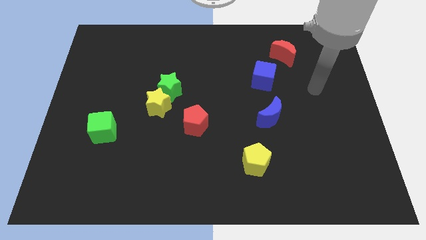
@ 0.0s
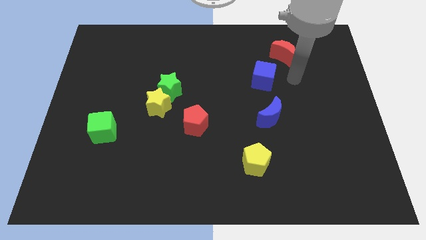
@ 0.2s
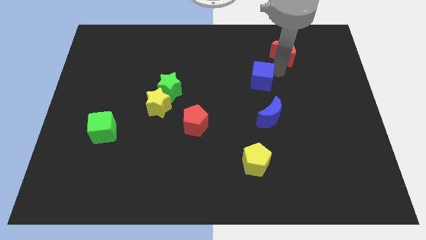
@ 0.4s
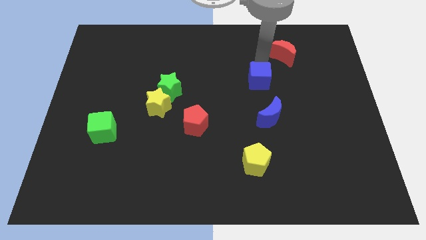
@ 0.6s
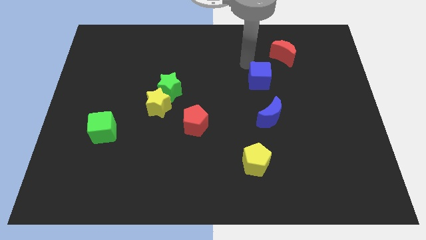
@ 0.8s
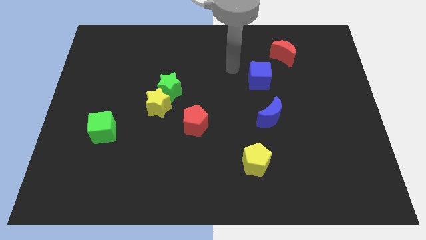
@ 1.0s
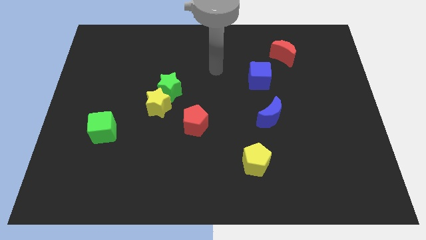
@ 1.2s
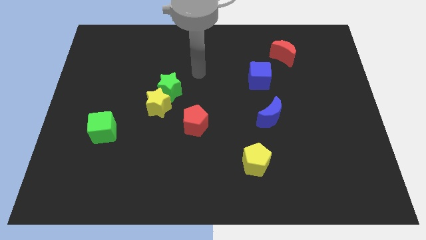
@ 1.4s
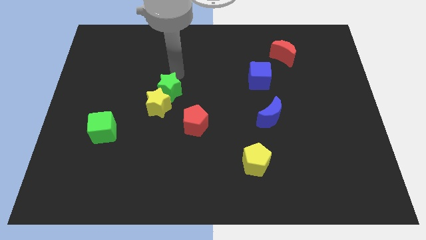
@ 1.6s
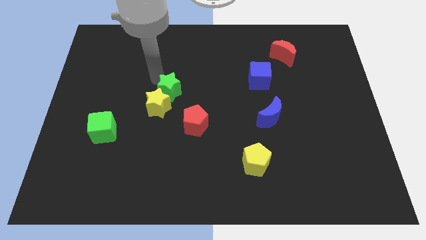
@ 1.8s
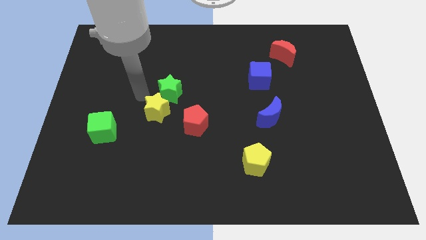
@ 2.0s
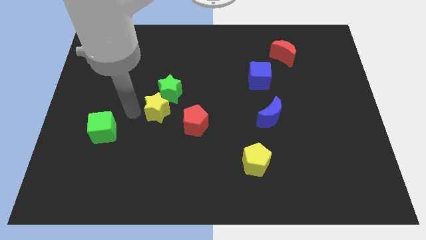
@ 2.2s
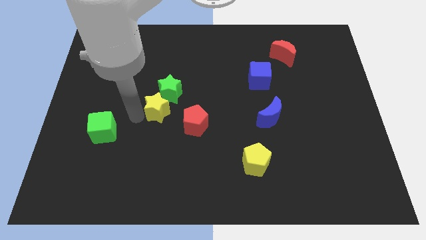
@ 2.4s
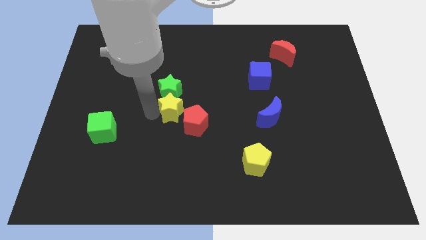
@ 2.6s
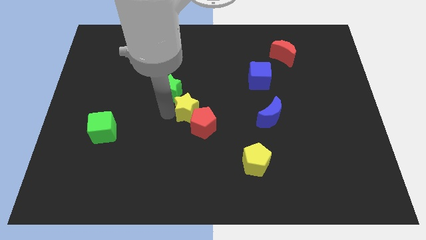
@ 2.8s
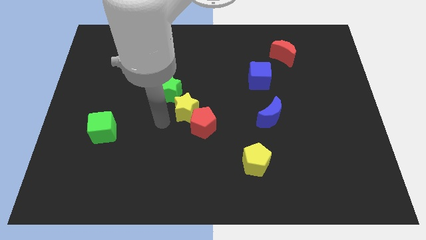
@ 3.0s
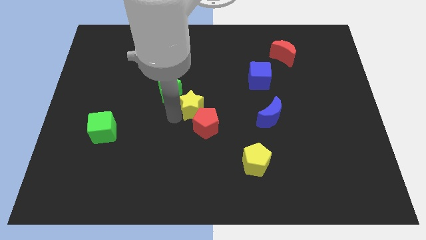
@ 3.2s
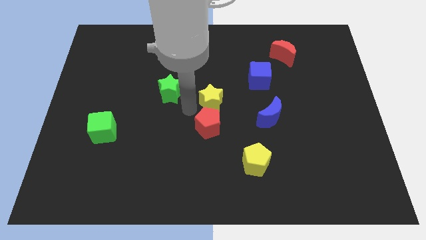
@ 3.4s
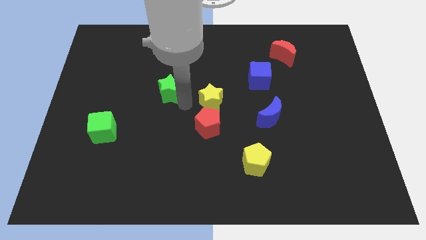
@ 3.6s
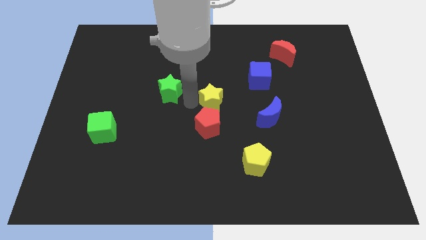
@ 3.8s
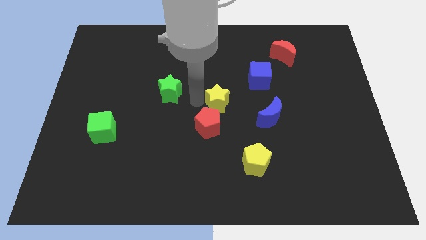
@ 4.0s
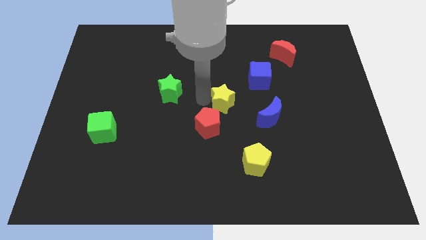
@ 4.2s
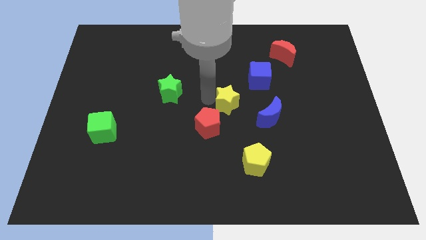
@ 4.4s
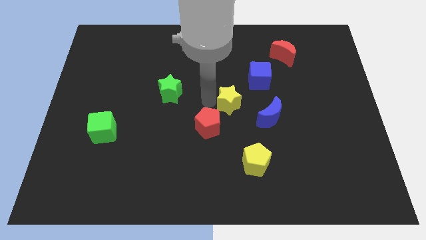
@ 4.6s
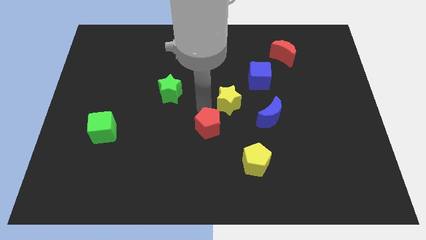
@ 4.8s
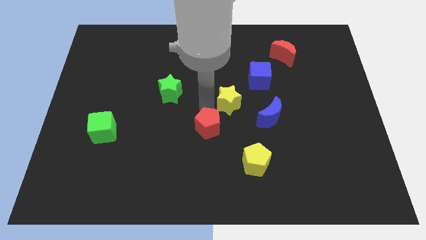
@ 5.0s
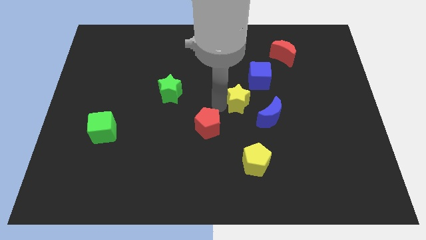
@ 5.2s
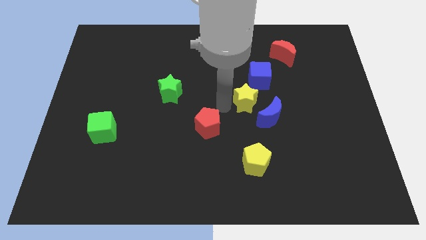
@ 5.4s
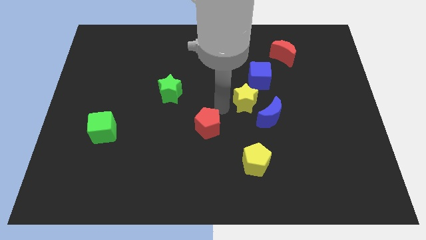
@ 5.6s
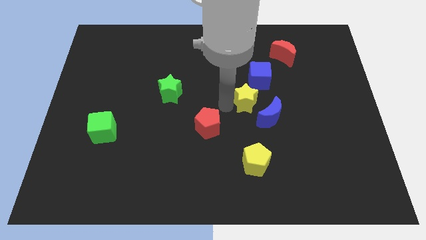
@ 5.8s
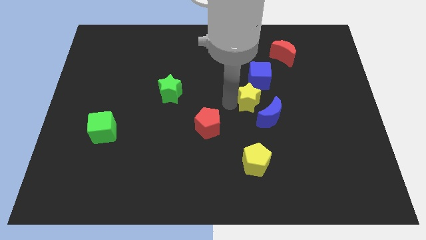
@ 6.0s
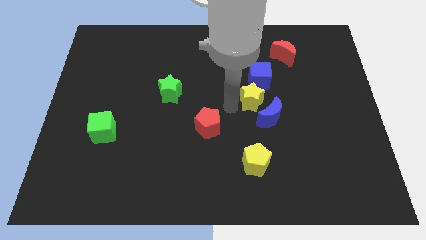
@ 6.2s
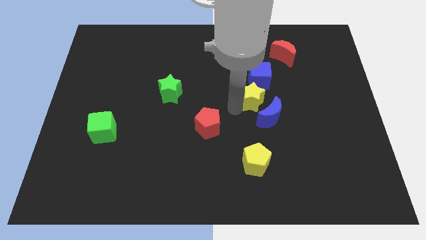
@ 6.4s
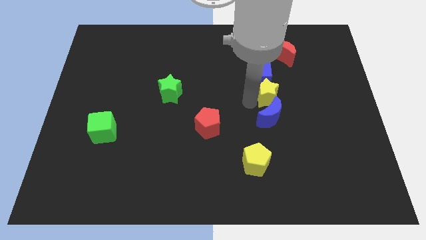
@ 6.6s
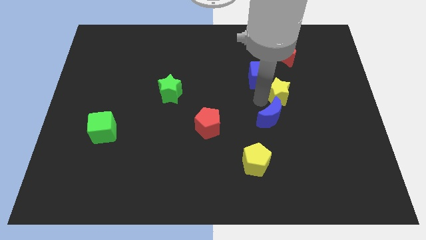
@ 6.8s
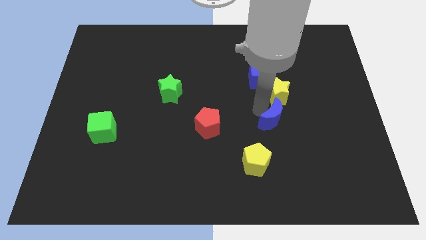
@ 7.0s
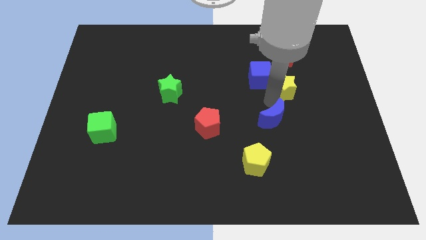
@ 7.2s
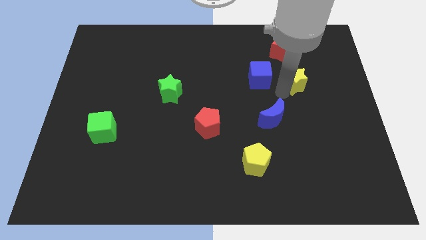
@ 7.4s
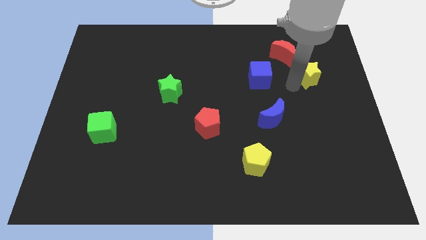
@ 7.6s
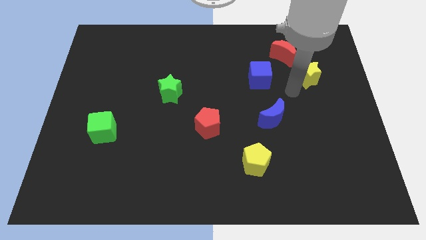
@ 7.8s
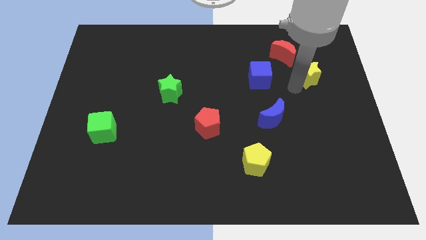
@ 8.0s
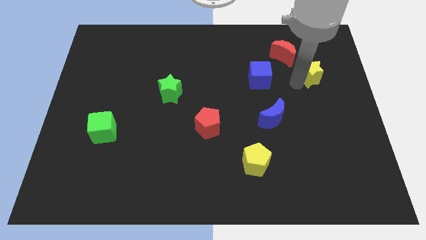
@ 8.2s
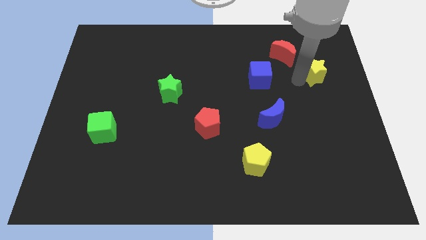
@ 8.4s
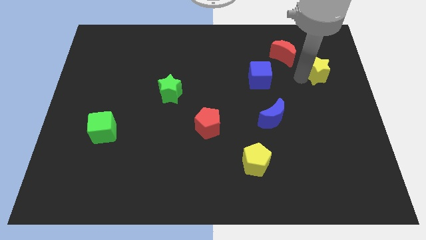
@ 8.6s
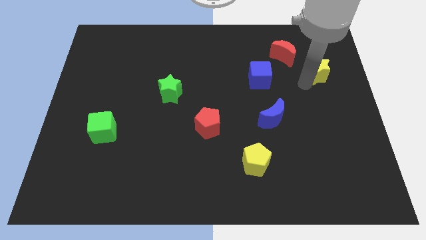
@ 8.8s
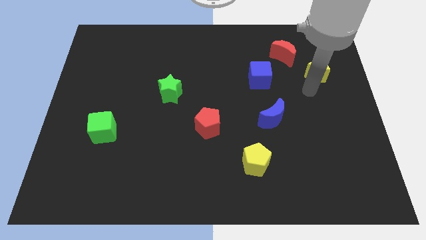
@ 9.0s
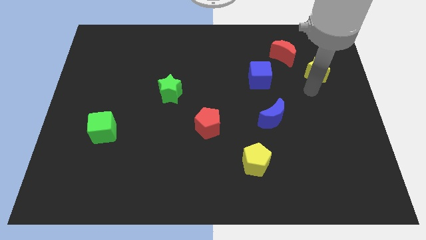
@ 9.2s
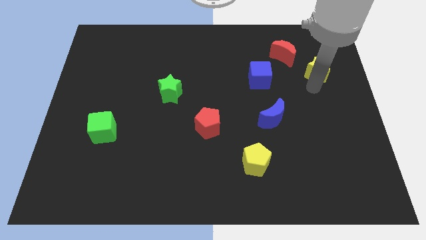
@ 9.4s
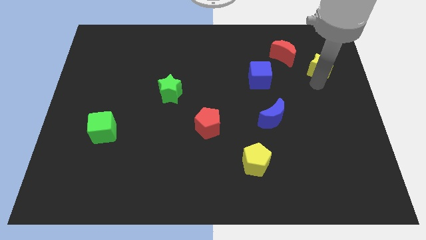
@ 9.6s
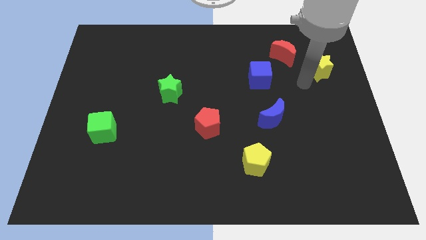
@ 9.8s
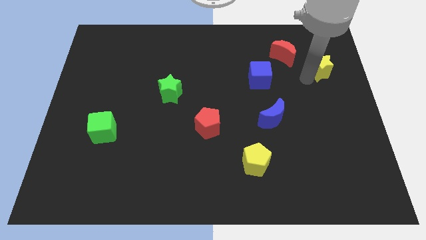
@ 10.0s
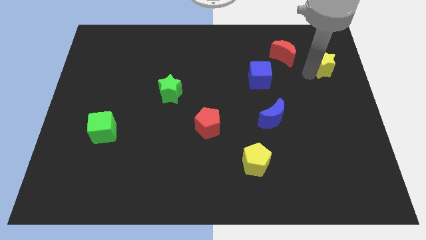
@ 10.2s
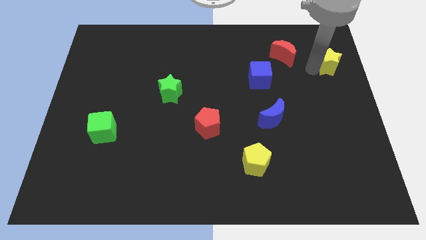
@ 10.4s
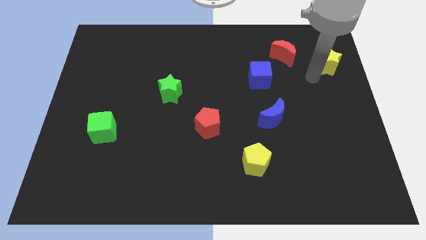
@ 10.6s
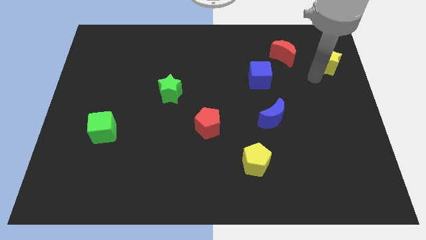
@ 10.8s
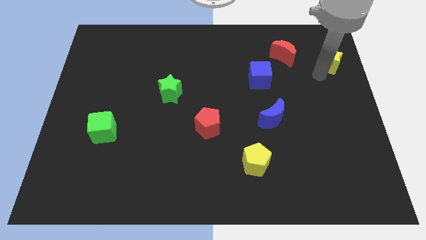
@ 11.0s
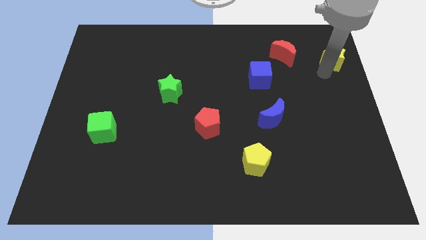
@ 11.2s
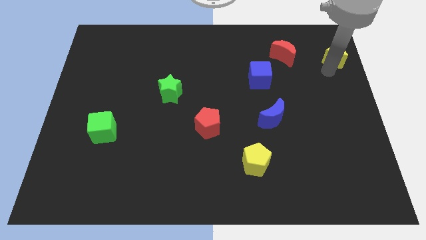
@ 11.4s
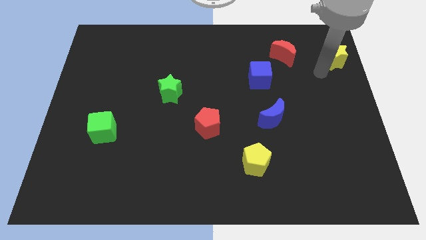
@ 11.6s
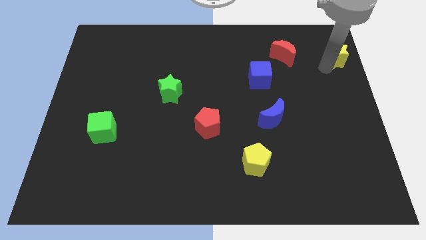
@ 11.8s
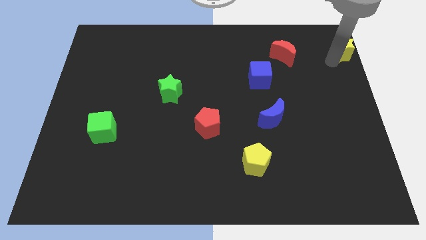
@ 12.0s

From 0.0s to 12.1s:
push the yellow star to the top right

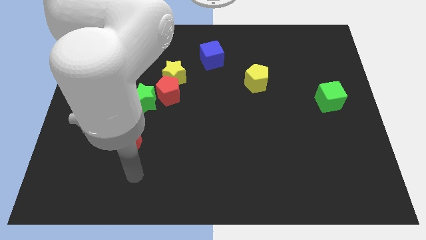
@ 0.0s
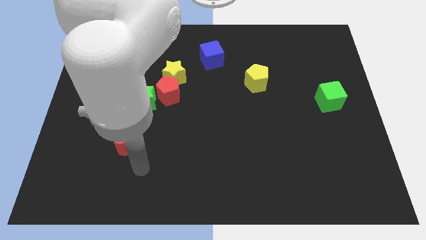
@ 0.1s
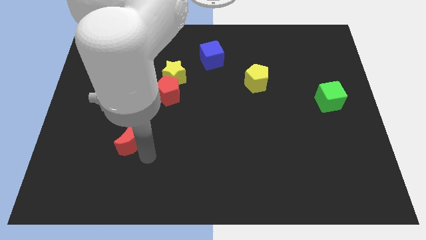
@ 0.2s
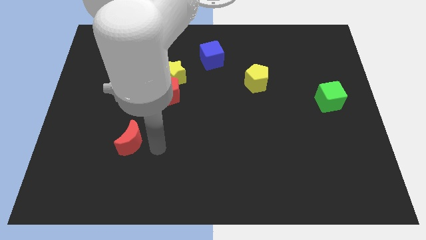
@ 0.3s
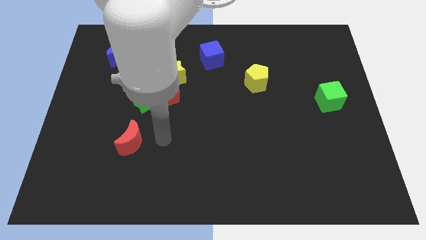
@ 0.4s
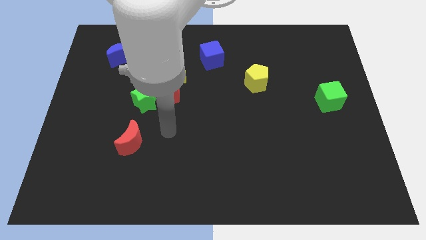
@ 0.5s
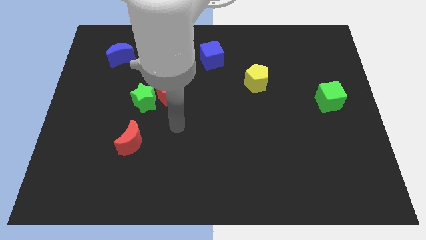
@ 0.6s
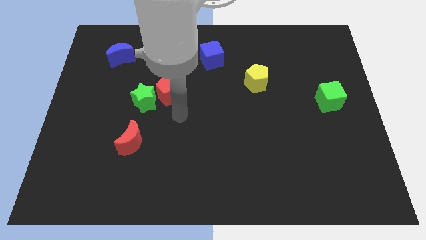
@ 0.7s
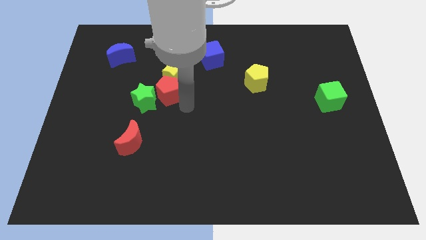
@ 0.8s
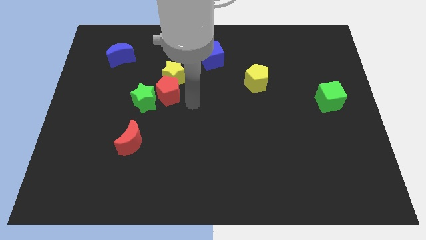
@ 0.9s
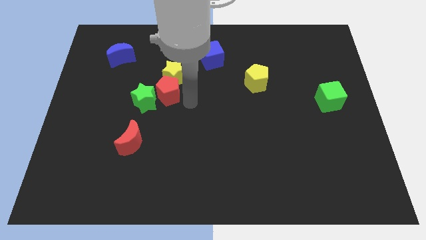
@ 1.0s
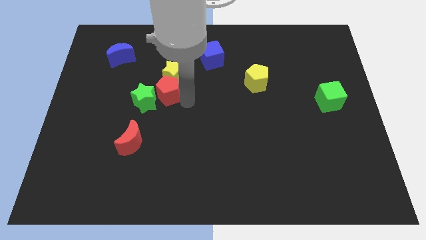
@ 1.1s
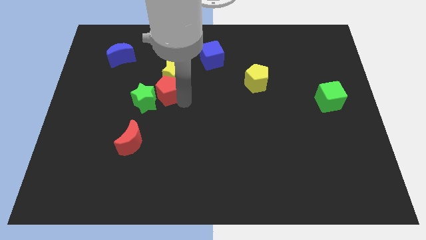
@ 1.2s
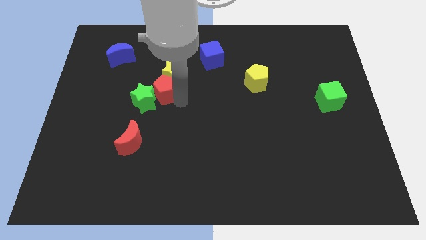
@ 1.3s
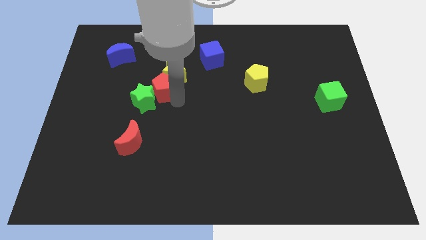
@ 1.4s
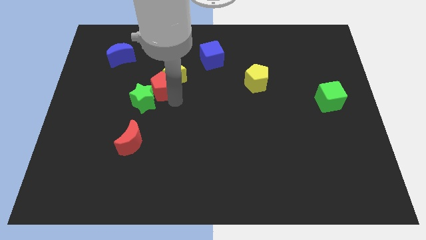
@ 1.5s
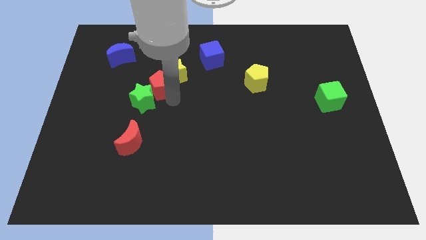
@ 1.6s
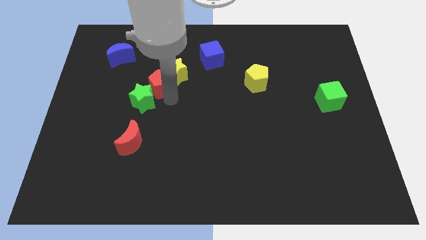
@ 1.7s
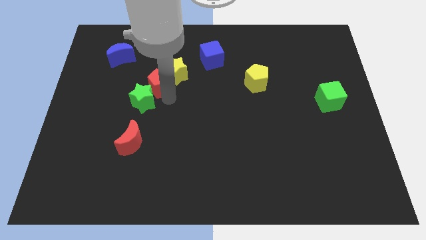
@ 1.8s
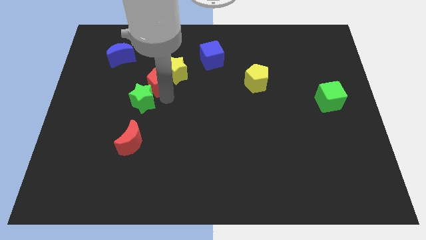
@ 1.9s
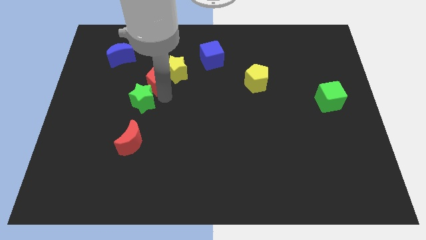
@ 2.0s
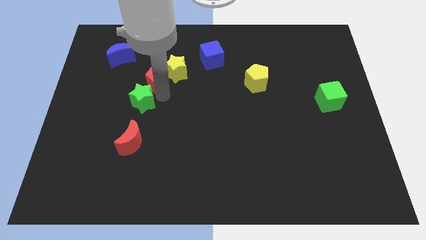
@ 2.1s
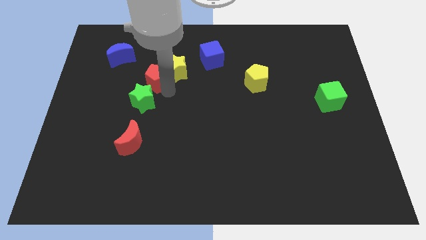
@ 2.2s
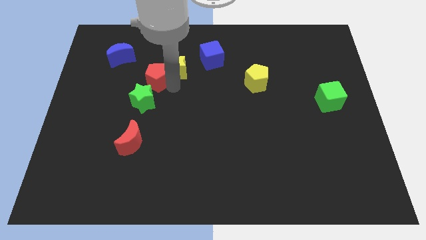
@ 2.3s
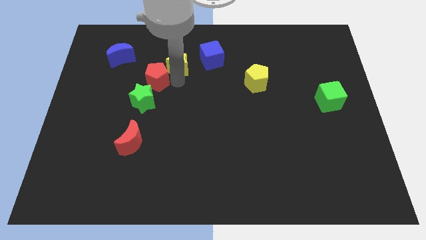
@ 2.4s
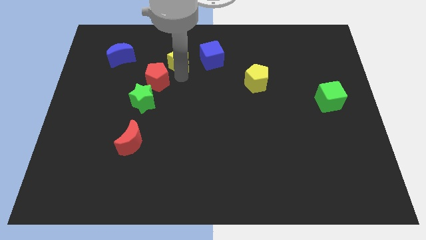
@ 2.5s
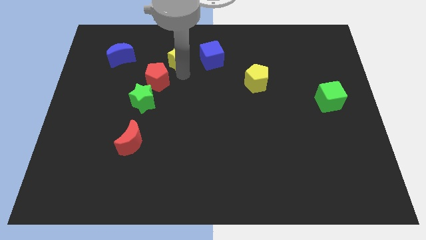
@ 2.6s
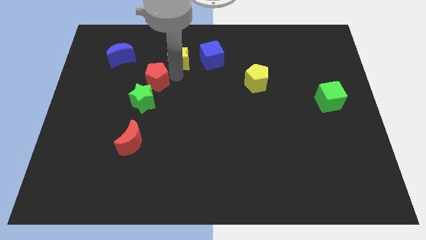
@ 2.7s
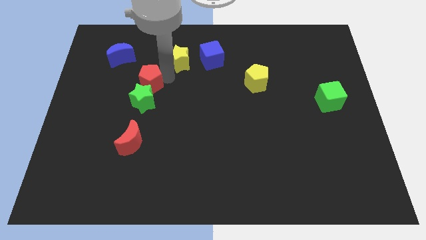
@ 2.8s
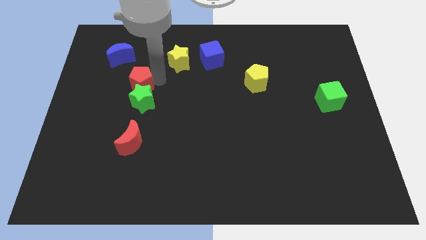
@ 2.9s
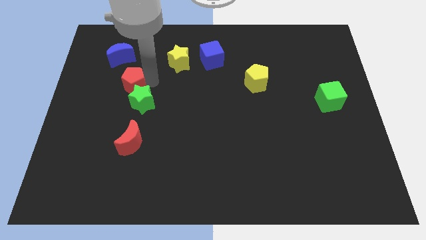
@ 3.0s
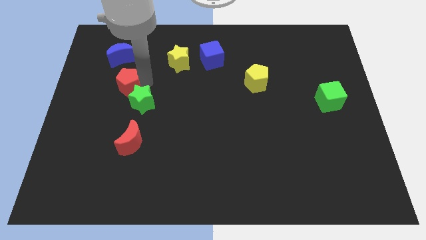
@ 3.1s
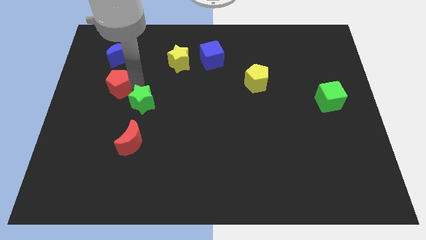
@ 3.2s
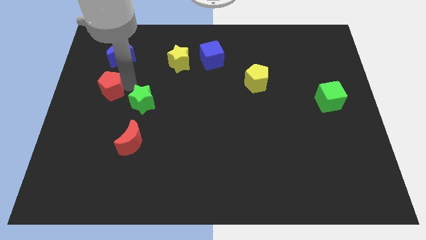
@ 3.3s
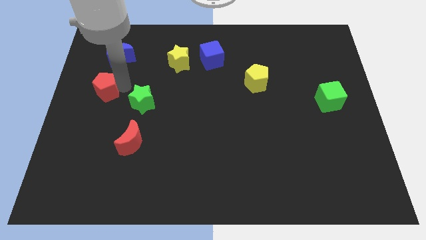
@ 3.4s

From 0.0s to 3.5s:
slide the red pentagon to the center left
